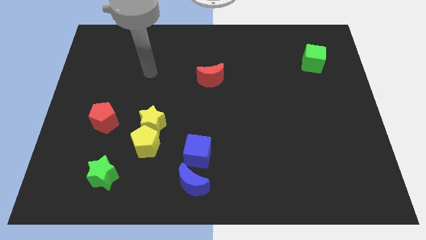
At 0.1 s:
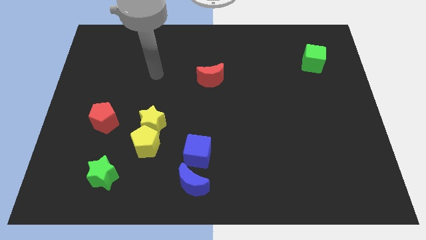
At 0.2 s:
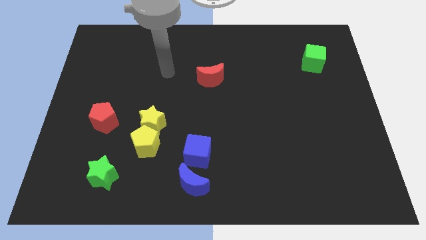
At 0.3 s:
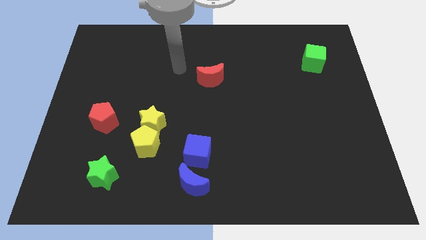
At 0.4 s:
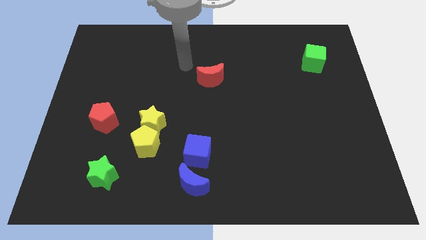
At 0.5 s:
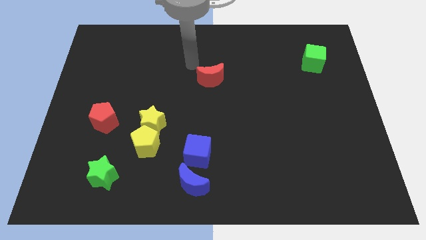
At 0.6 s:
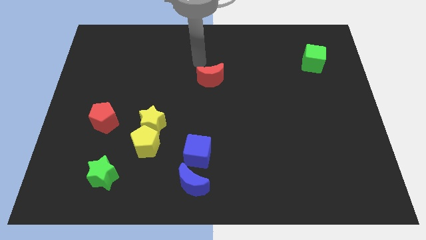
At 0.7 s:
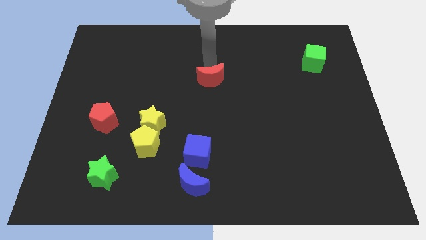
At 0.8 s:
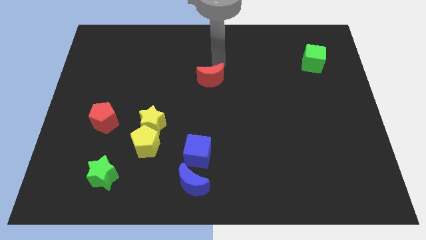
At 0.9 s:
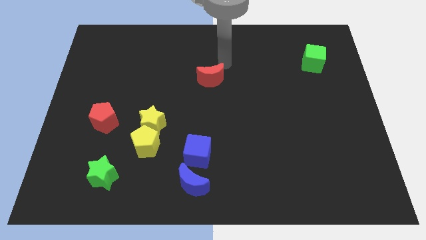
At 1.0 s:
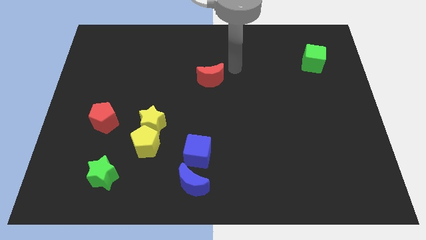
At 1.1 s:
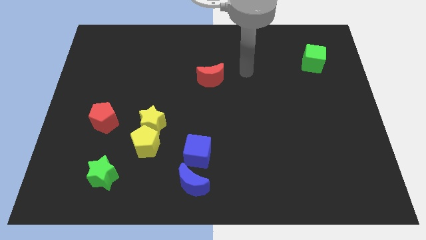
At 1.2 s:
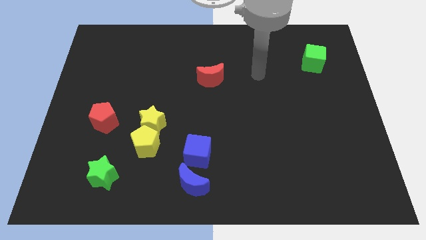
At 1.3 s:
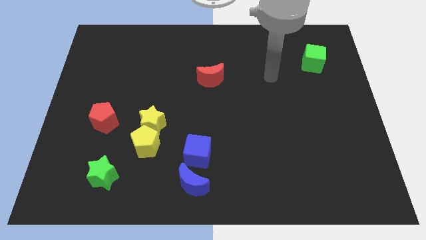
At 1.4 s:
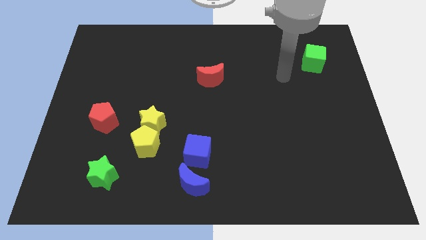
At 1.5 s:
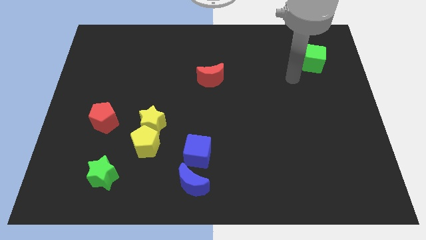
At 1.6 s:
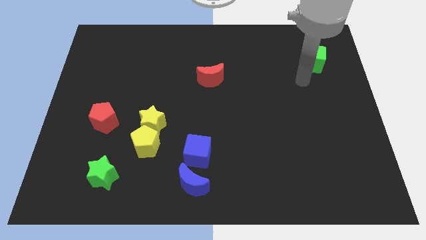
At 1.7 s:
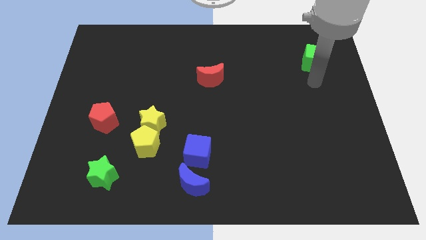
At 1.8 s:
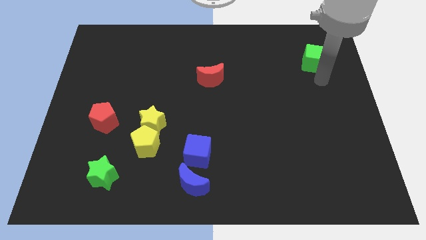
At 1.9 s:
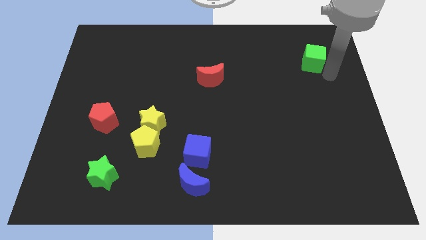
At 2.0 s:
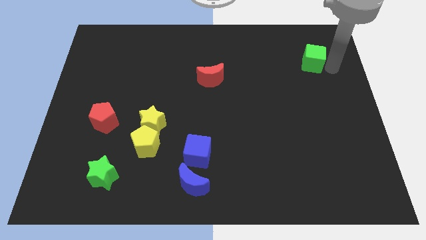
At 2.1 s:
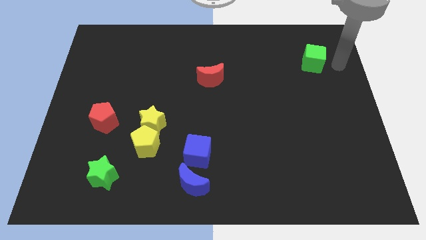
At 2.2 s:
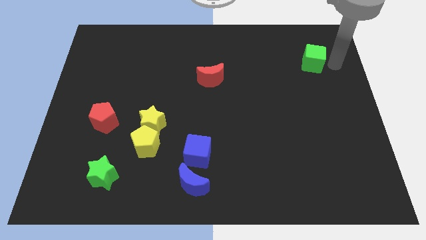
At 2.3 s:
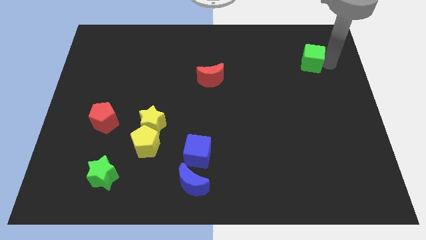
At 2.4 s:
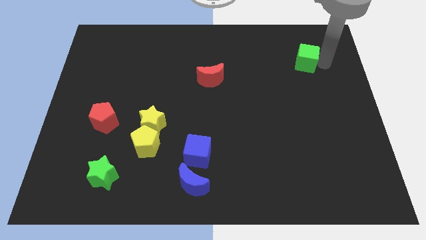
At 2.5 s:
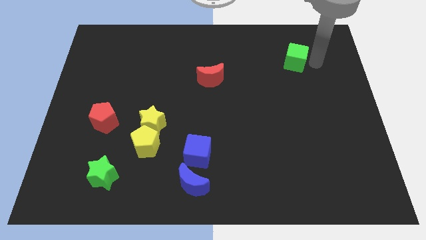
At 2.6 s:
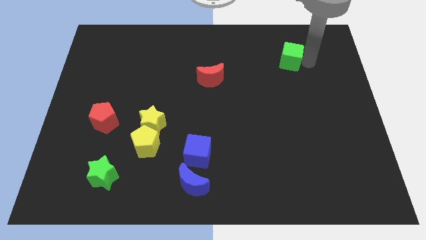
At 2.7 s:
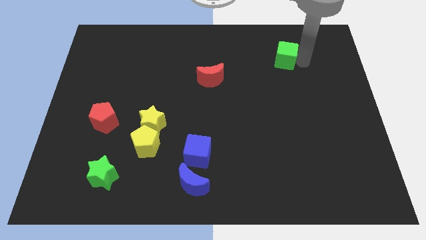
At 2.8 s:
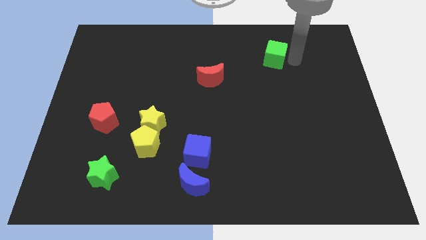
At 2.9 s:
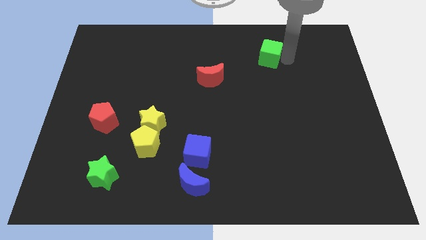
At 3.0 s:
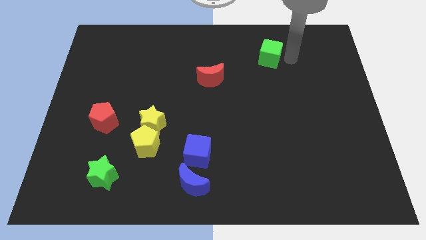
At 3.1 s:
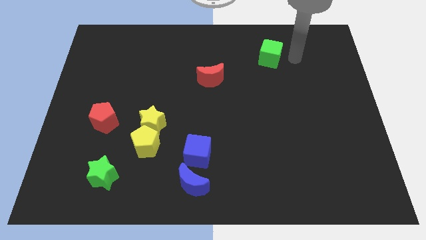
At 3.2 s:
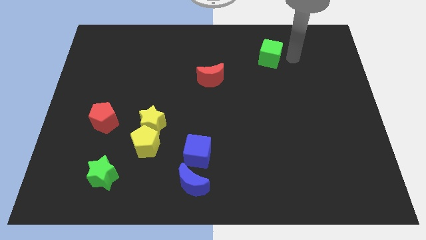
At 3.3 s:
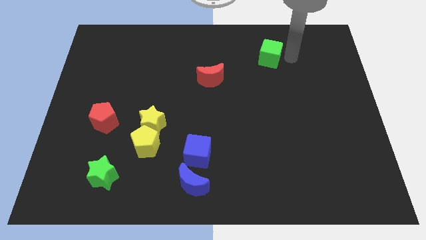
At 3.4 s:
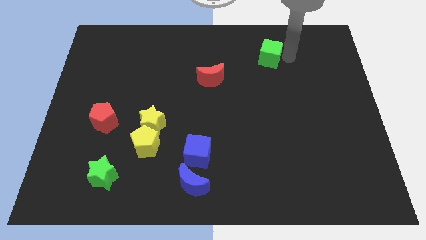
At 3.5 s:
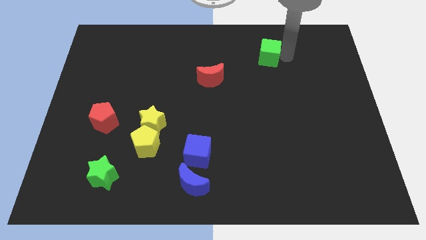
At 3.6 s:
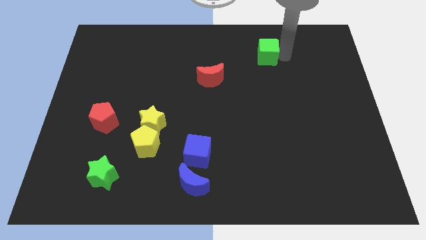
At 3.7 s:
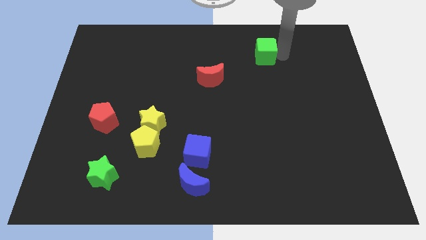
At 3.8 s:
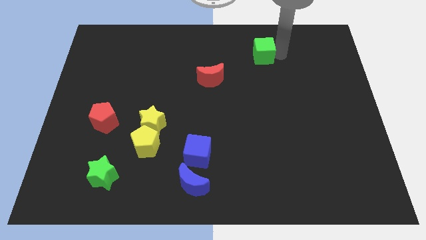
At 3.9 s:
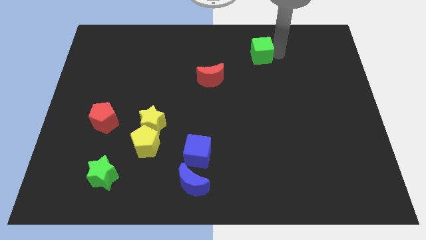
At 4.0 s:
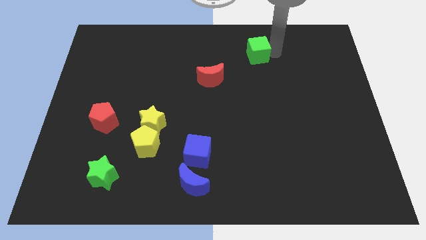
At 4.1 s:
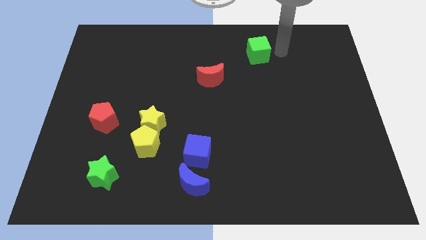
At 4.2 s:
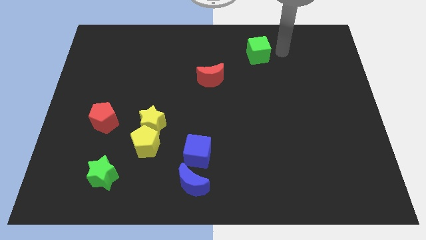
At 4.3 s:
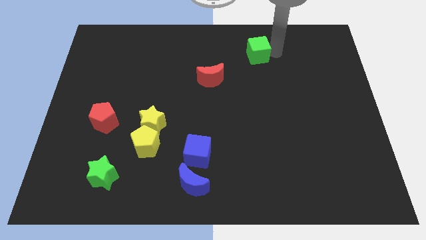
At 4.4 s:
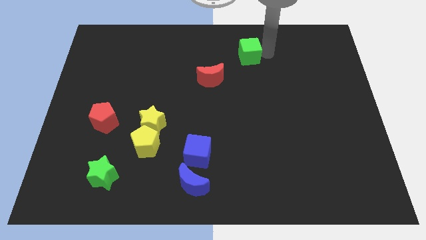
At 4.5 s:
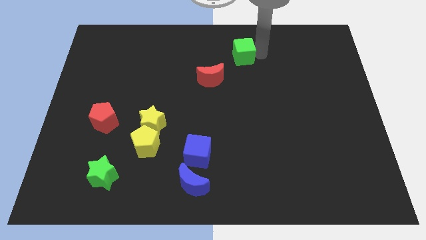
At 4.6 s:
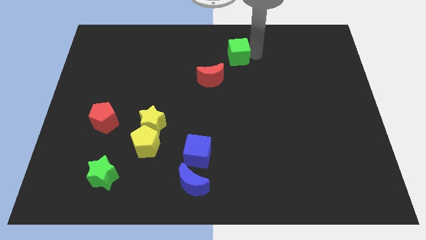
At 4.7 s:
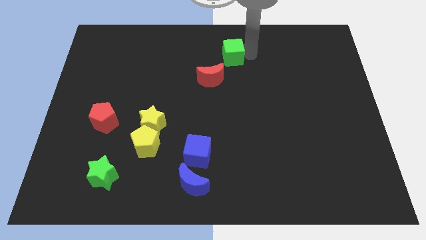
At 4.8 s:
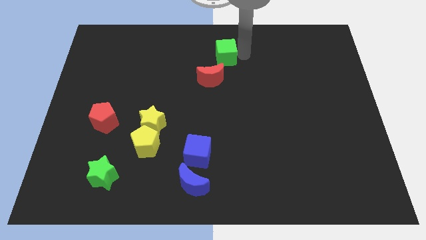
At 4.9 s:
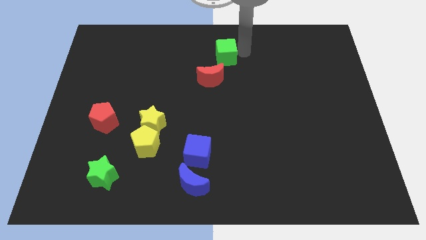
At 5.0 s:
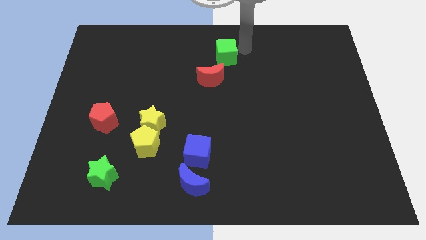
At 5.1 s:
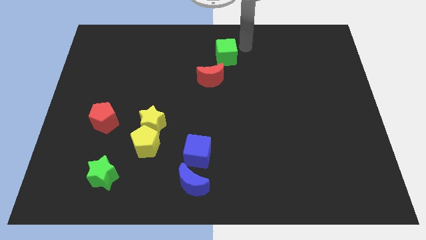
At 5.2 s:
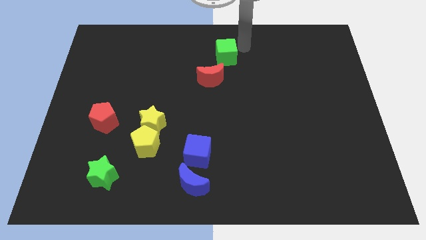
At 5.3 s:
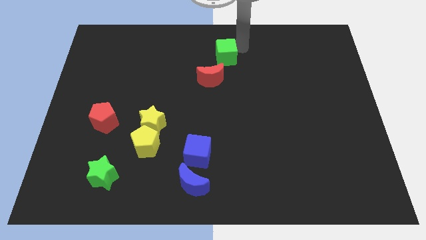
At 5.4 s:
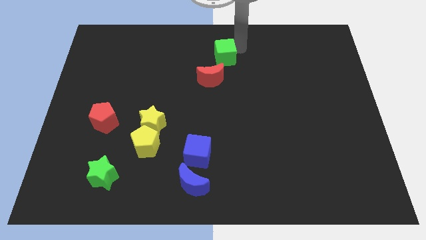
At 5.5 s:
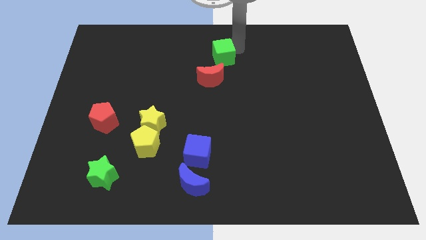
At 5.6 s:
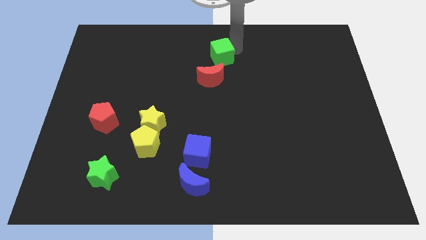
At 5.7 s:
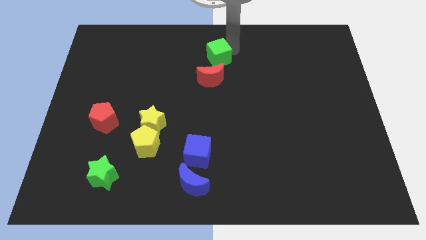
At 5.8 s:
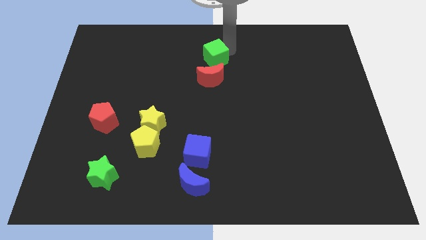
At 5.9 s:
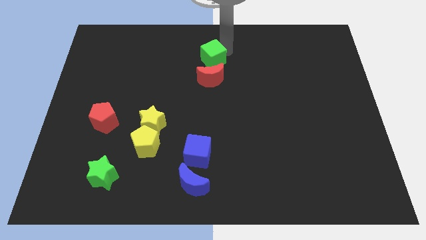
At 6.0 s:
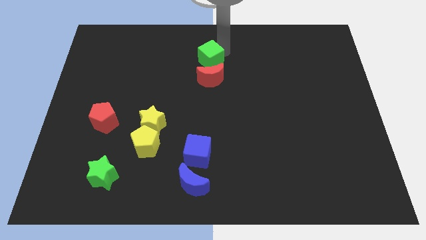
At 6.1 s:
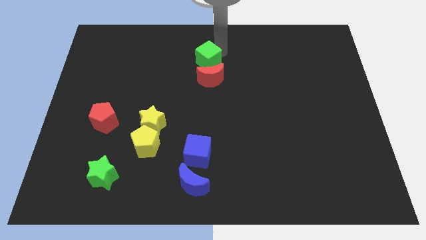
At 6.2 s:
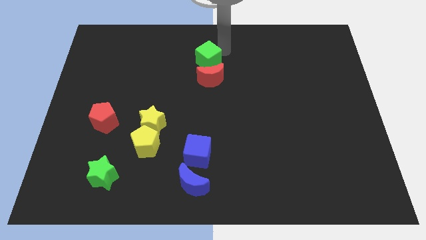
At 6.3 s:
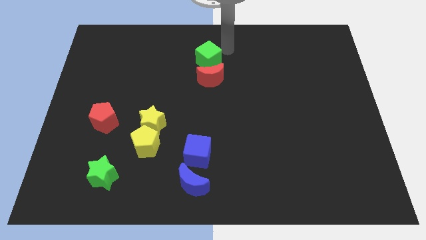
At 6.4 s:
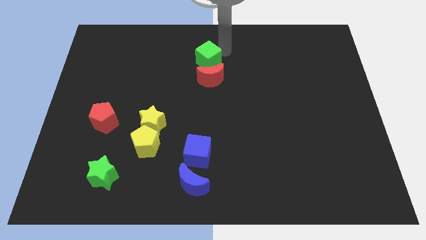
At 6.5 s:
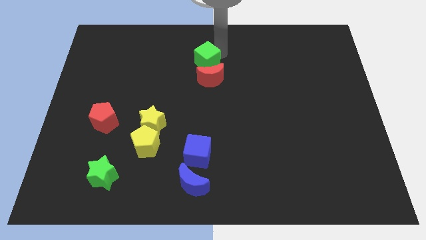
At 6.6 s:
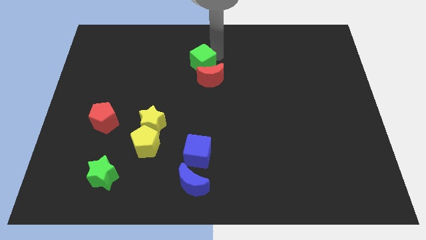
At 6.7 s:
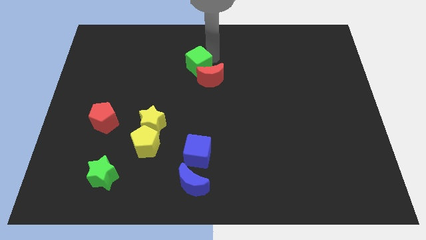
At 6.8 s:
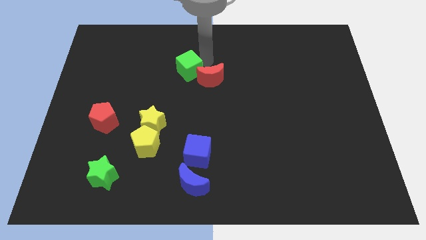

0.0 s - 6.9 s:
slide the green cube left of the red moon
